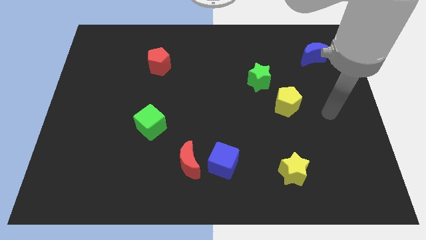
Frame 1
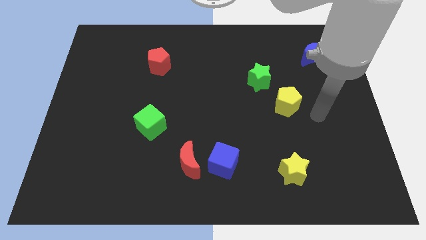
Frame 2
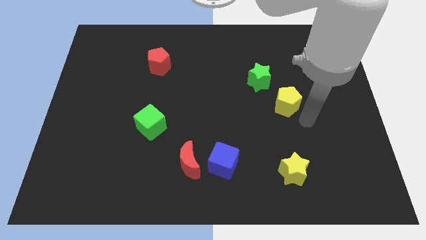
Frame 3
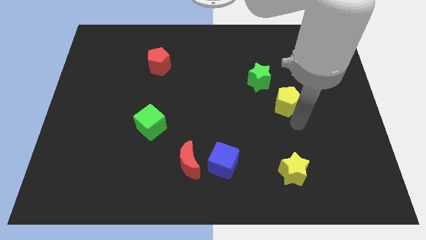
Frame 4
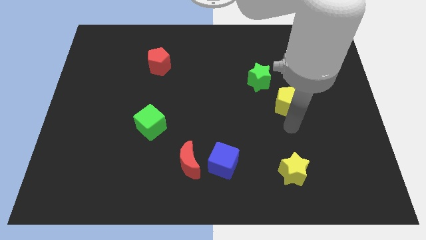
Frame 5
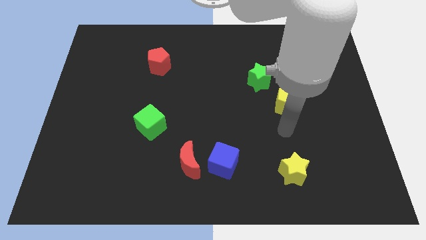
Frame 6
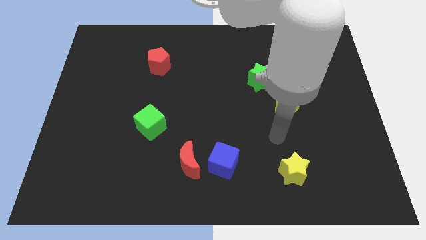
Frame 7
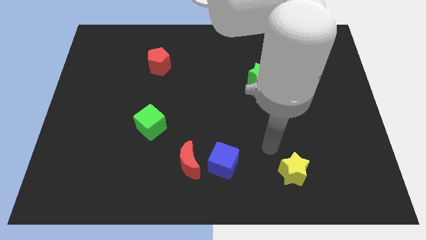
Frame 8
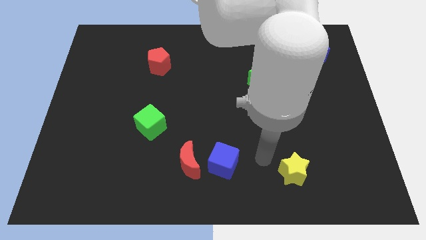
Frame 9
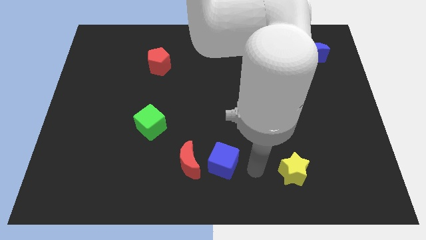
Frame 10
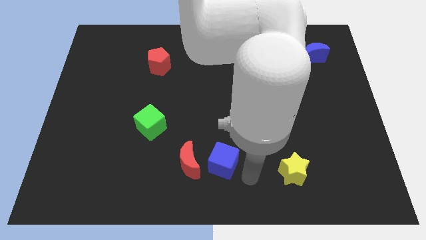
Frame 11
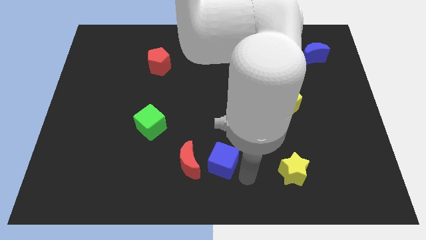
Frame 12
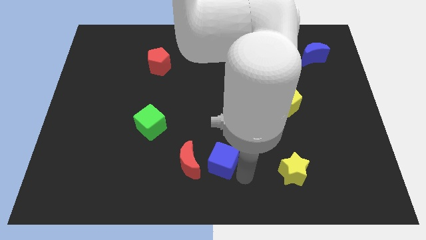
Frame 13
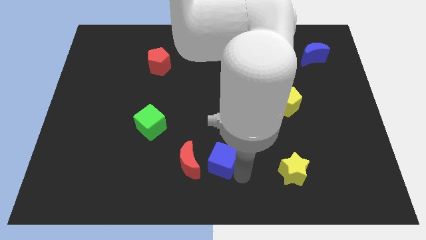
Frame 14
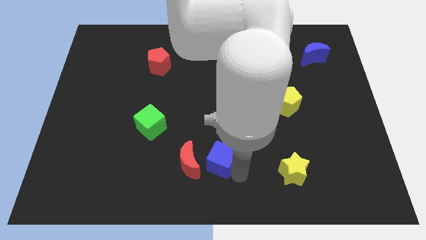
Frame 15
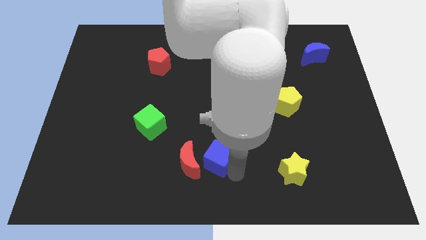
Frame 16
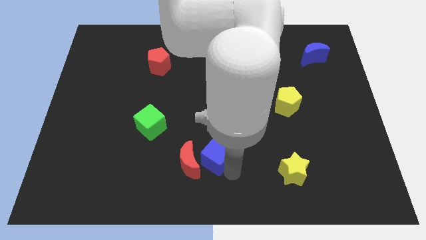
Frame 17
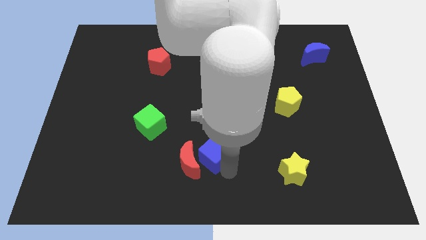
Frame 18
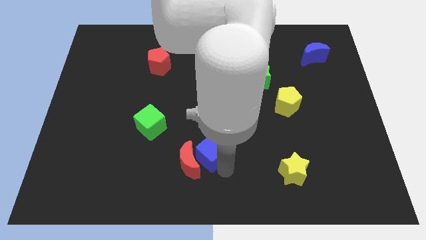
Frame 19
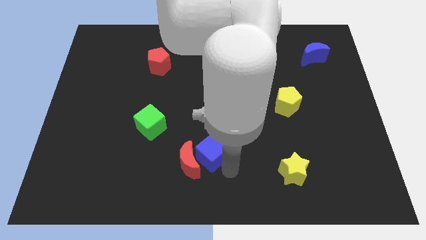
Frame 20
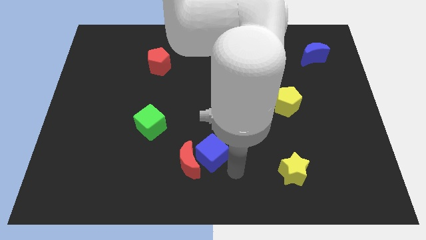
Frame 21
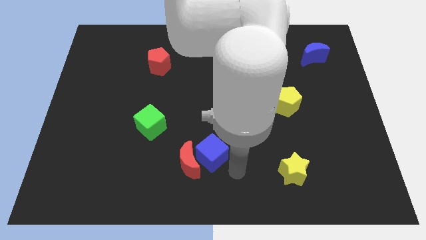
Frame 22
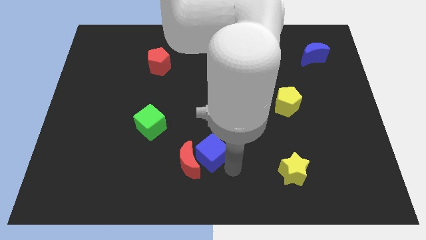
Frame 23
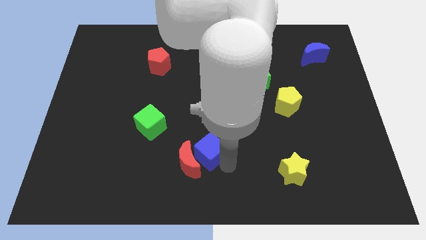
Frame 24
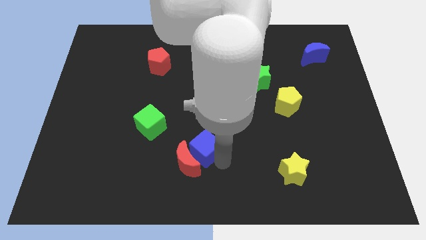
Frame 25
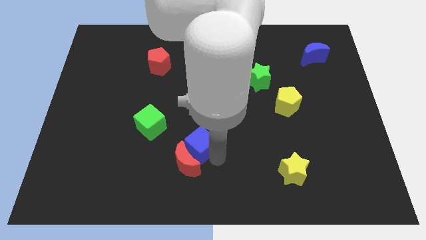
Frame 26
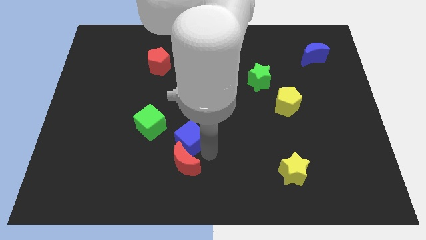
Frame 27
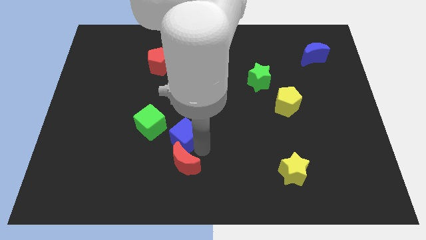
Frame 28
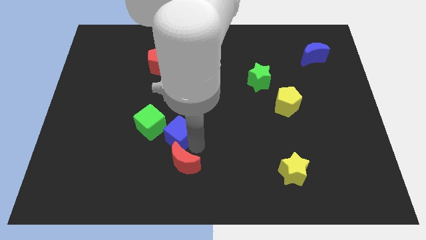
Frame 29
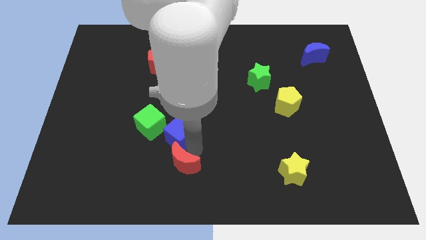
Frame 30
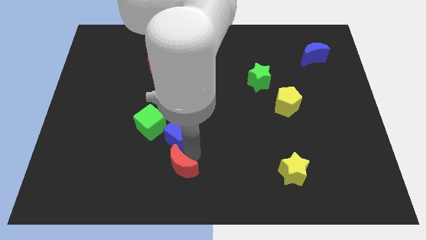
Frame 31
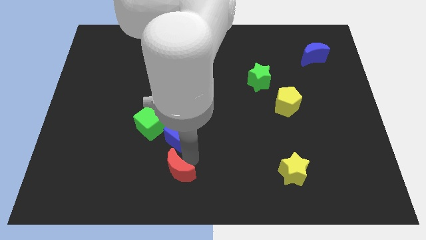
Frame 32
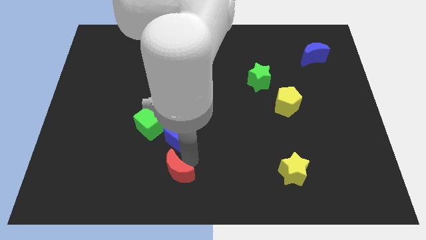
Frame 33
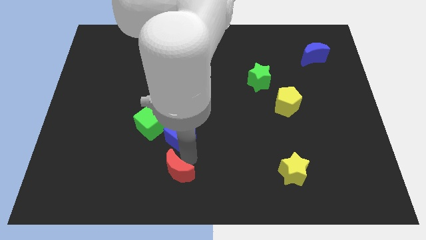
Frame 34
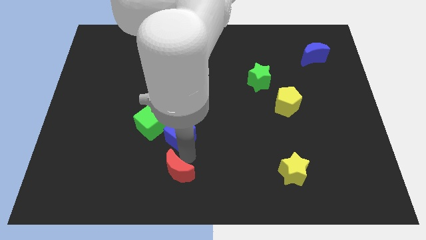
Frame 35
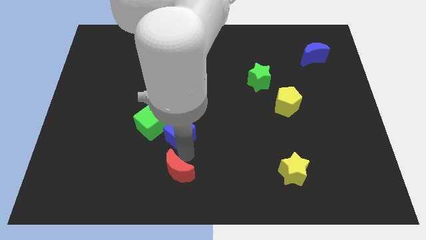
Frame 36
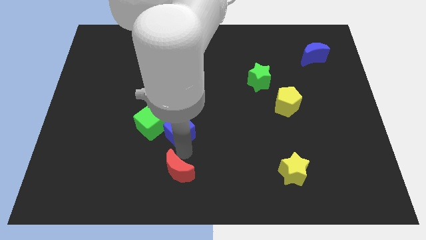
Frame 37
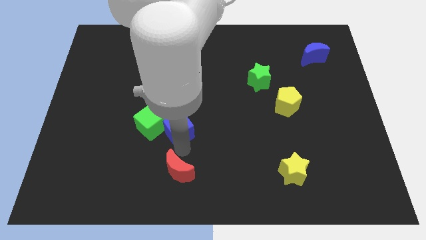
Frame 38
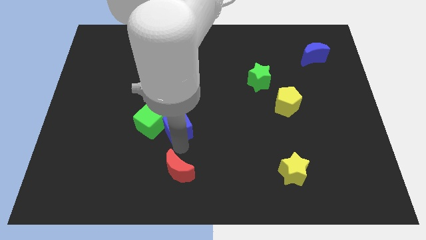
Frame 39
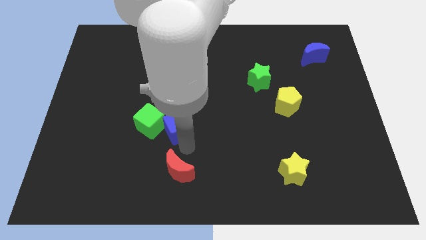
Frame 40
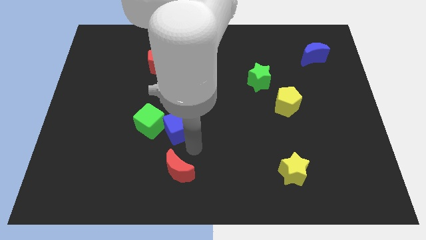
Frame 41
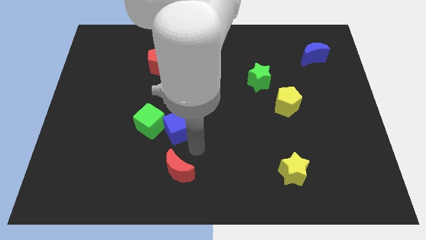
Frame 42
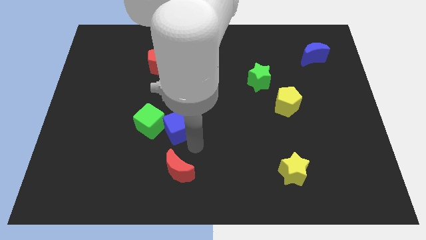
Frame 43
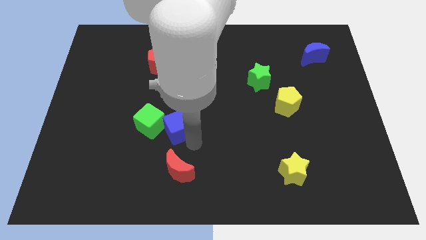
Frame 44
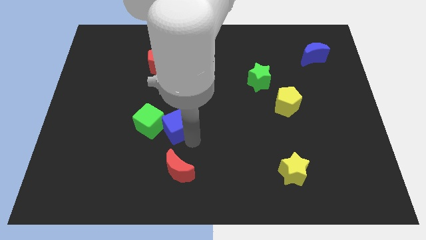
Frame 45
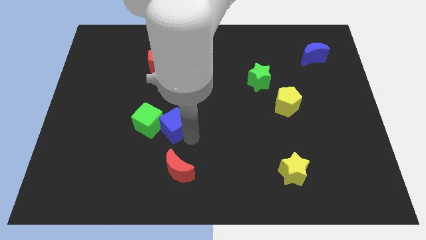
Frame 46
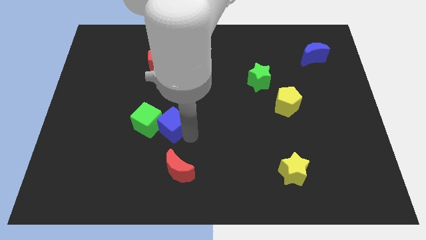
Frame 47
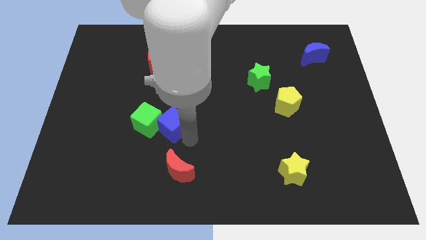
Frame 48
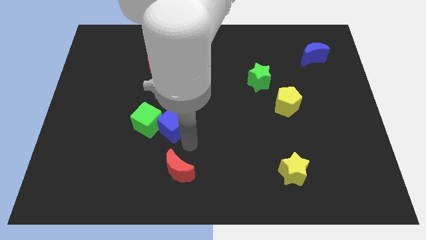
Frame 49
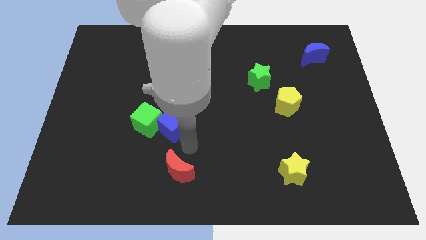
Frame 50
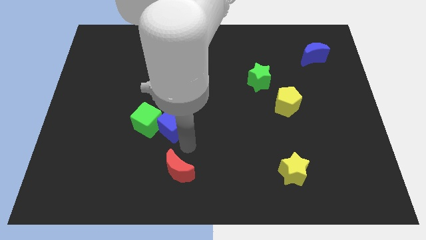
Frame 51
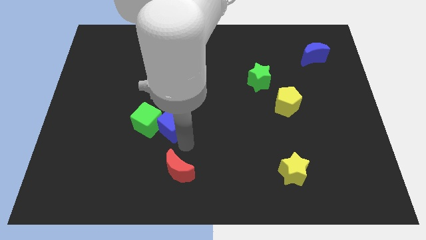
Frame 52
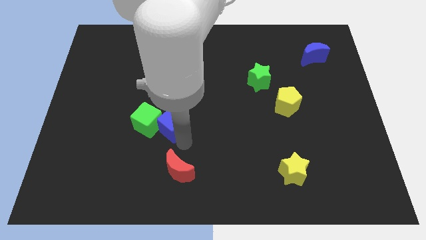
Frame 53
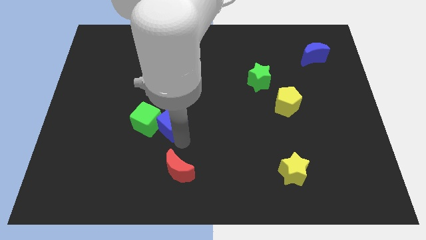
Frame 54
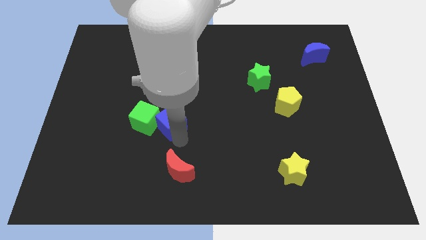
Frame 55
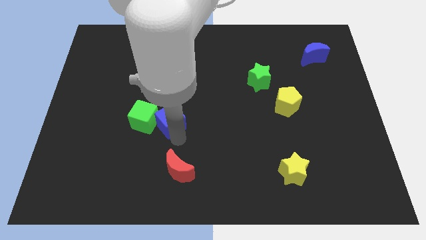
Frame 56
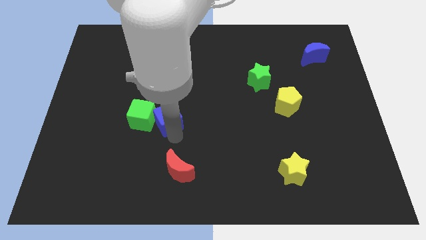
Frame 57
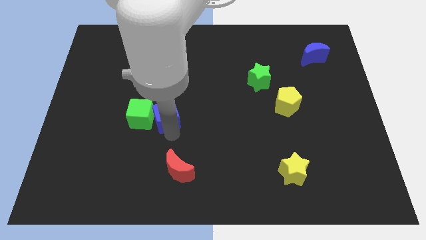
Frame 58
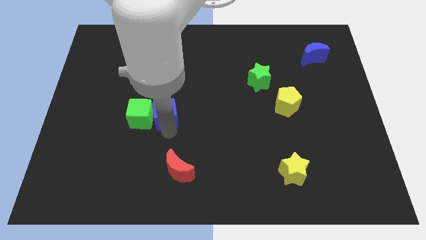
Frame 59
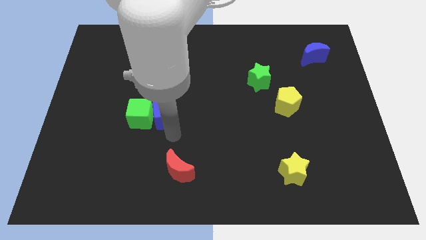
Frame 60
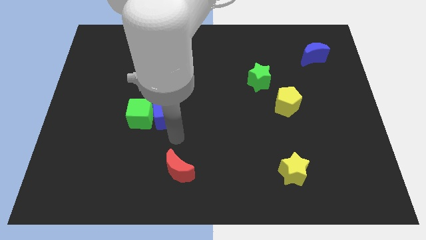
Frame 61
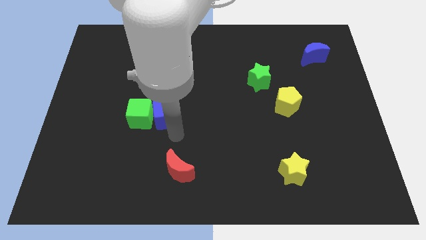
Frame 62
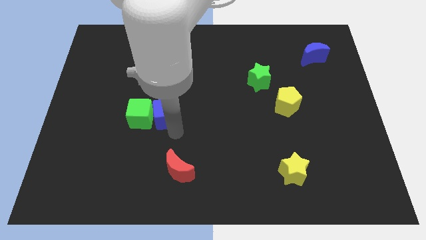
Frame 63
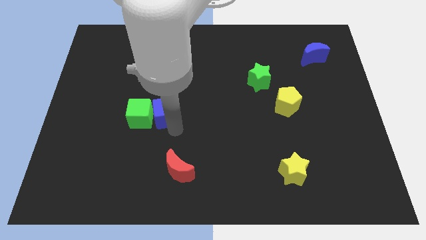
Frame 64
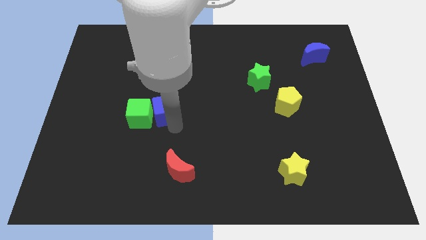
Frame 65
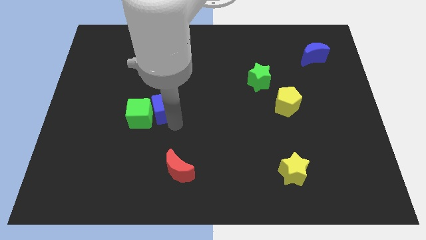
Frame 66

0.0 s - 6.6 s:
slide the blue cube to the bottom side of the red pentagon

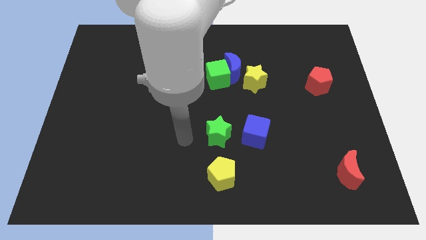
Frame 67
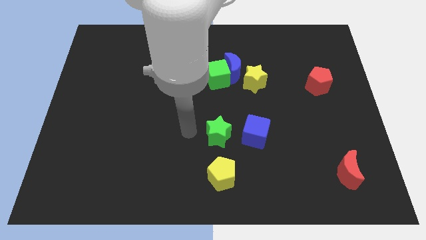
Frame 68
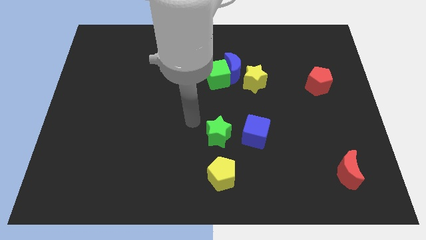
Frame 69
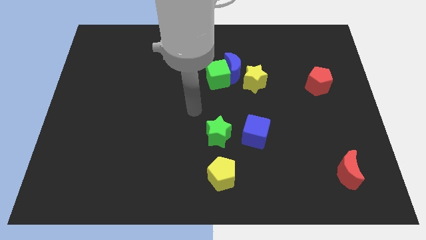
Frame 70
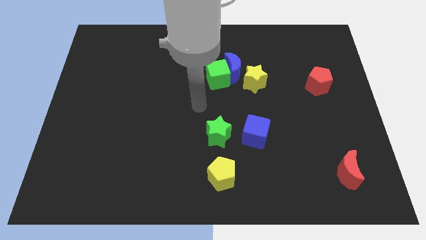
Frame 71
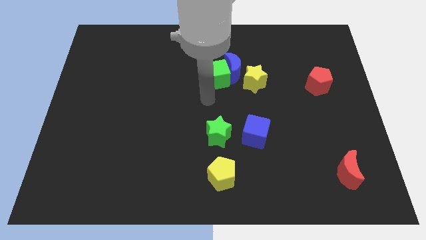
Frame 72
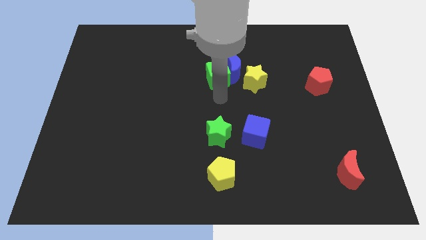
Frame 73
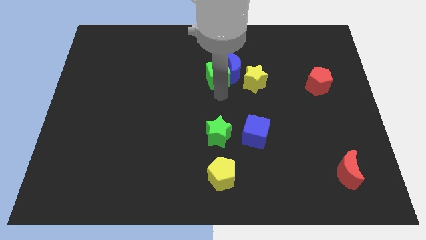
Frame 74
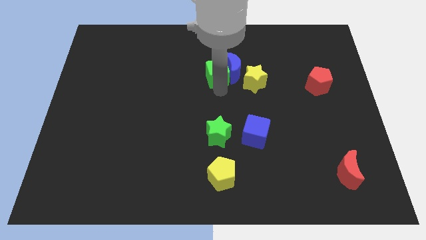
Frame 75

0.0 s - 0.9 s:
move the green cube to the top left of the blue moon
